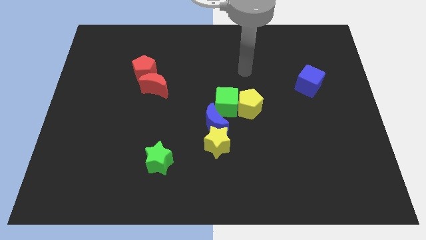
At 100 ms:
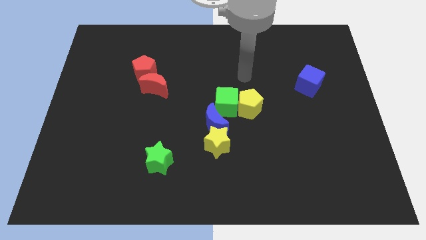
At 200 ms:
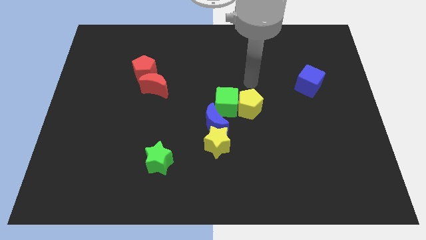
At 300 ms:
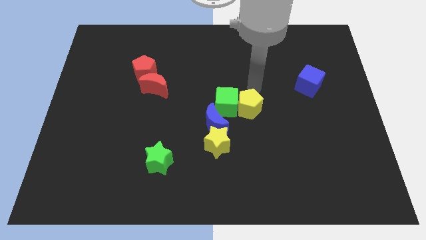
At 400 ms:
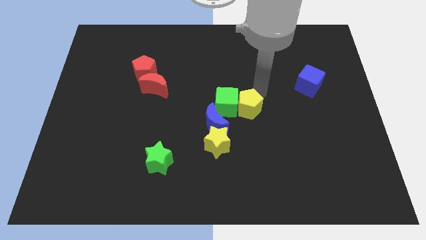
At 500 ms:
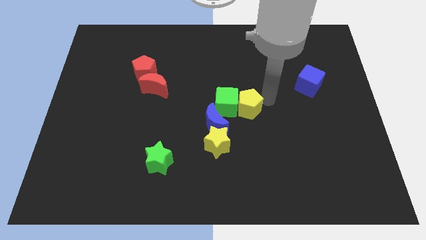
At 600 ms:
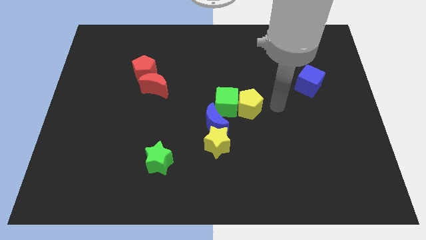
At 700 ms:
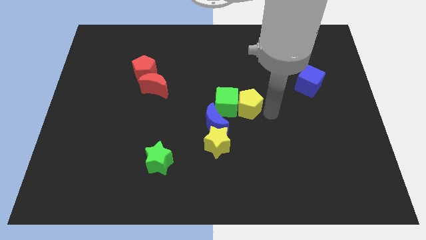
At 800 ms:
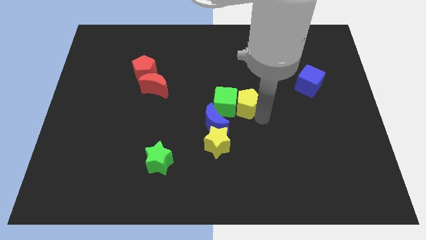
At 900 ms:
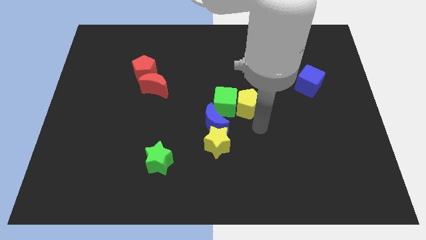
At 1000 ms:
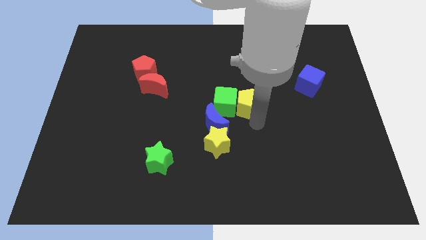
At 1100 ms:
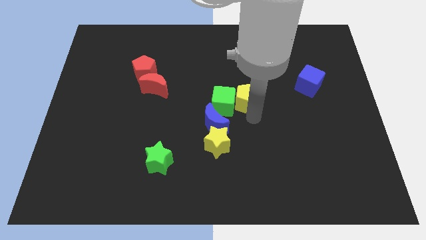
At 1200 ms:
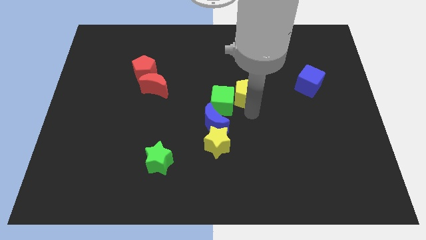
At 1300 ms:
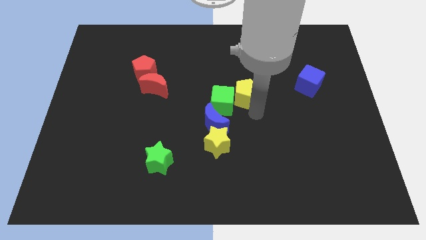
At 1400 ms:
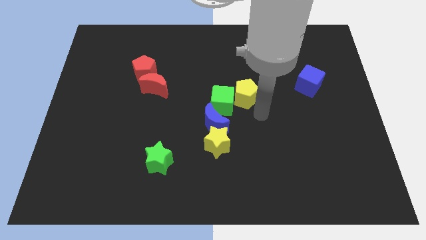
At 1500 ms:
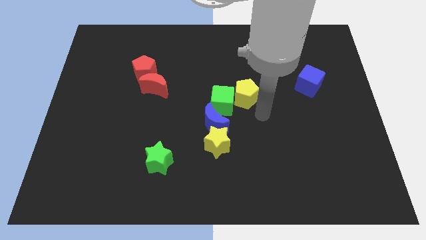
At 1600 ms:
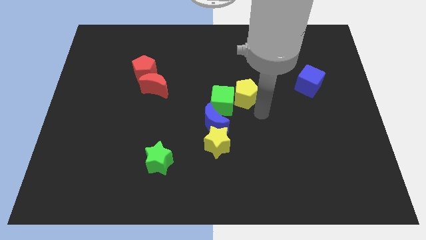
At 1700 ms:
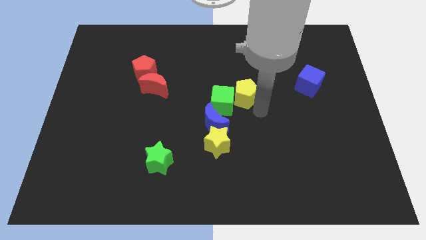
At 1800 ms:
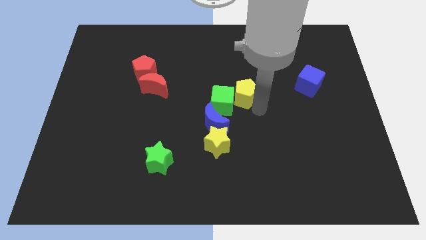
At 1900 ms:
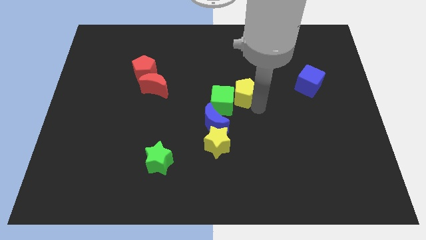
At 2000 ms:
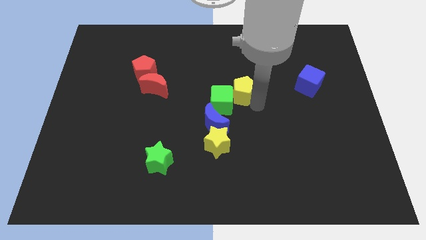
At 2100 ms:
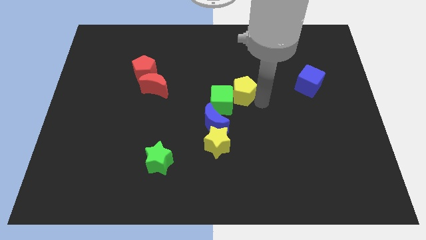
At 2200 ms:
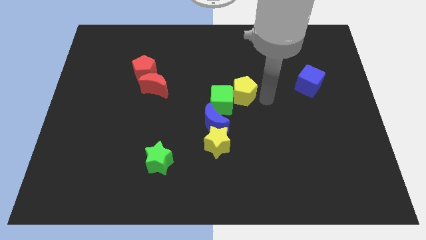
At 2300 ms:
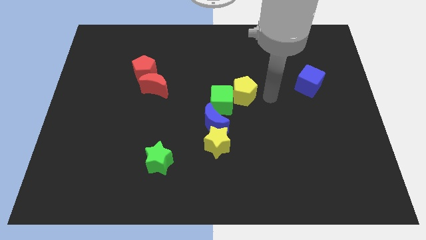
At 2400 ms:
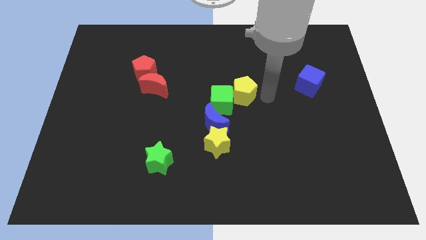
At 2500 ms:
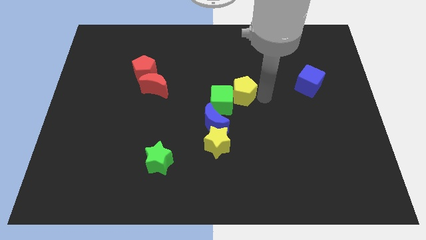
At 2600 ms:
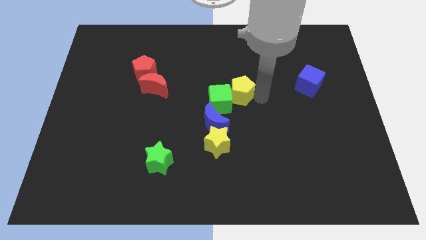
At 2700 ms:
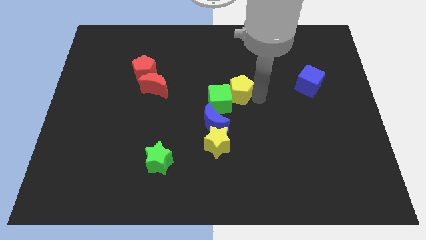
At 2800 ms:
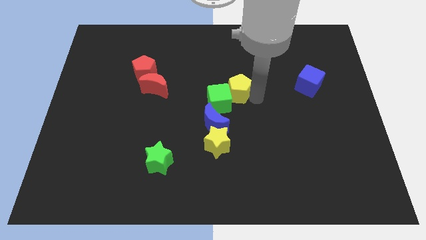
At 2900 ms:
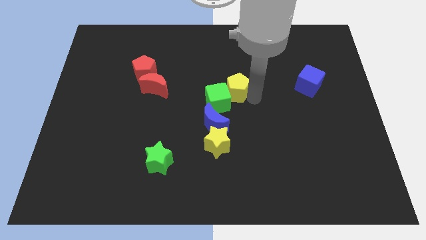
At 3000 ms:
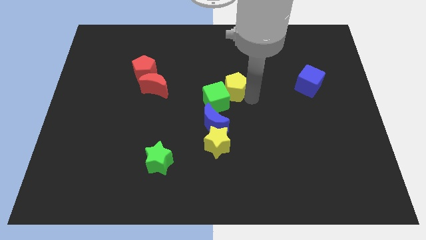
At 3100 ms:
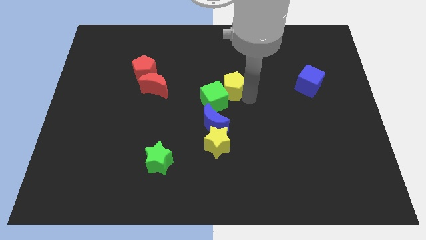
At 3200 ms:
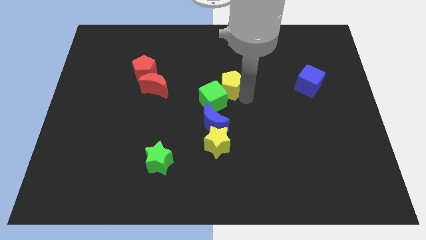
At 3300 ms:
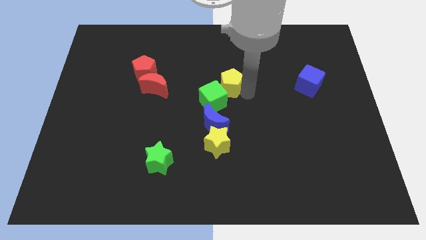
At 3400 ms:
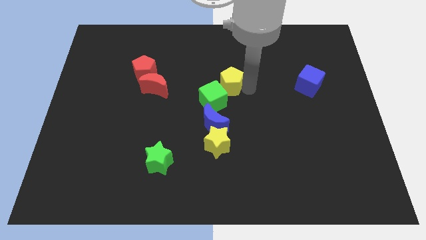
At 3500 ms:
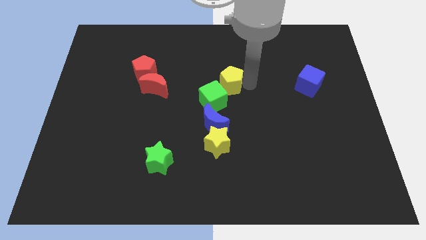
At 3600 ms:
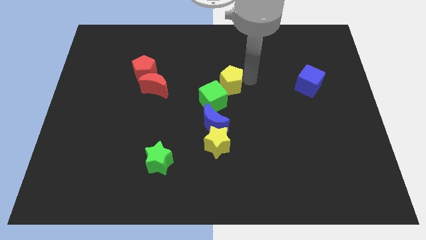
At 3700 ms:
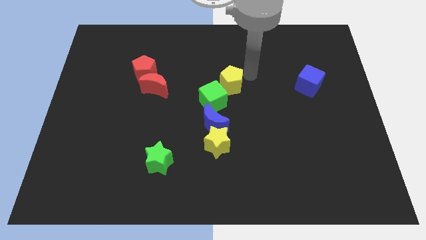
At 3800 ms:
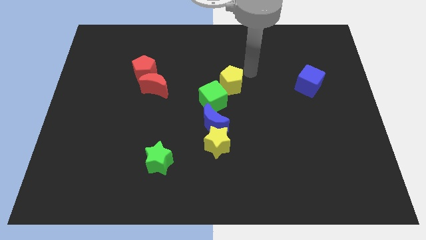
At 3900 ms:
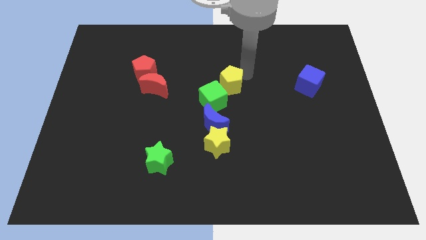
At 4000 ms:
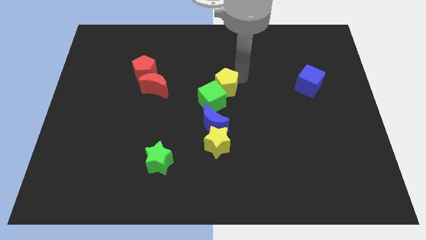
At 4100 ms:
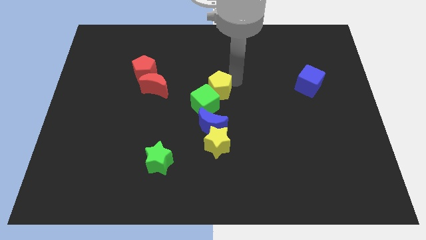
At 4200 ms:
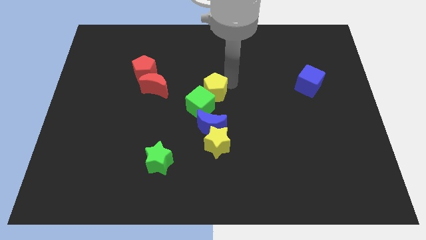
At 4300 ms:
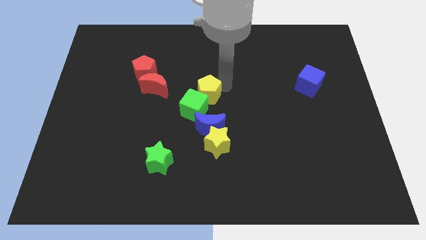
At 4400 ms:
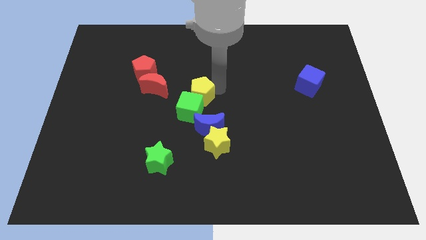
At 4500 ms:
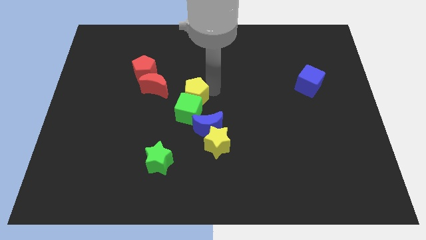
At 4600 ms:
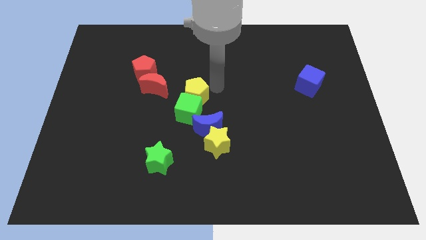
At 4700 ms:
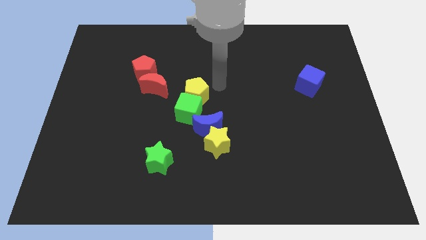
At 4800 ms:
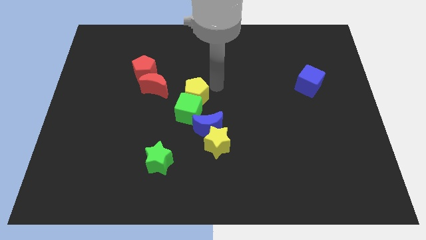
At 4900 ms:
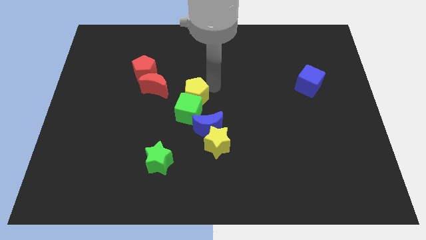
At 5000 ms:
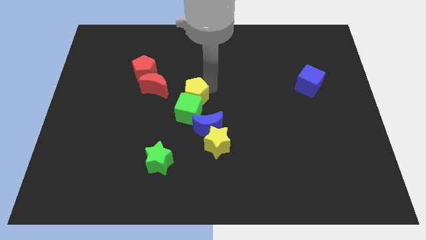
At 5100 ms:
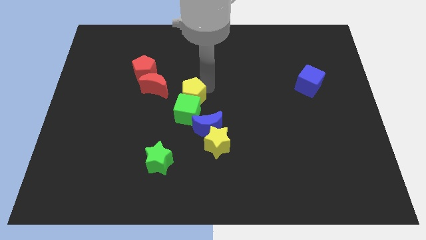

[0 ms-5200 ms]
push the yellow pentagon to the bottom right of the red moon

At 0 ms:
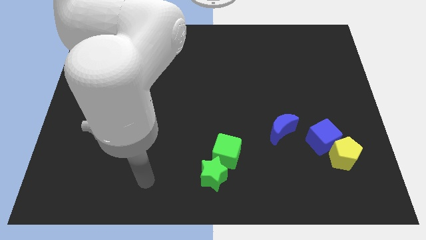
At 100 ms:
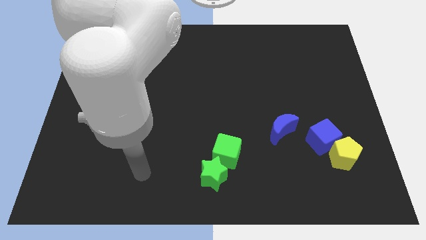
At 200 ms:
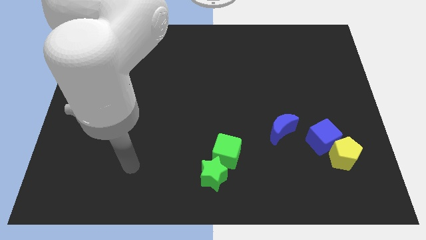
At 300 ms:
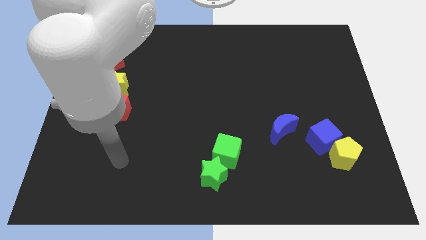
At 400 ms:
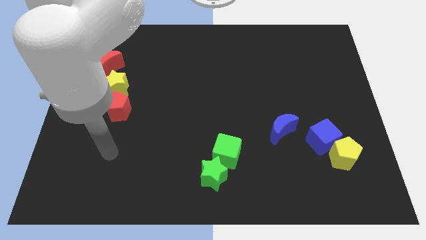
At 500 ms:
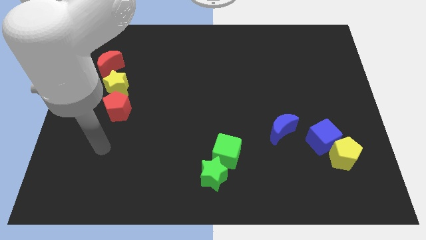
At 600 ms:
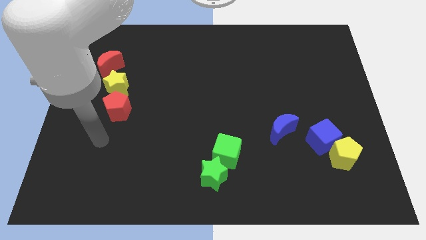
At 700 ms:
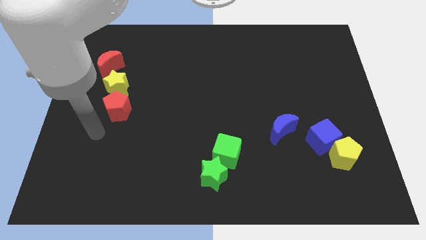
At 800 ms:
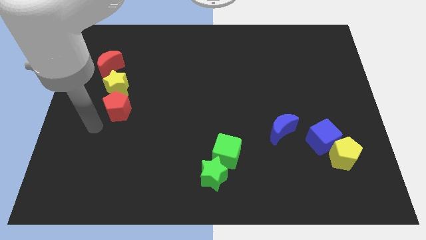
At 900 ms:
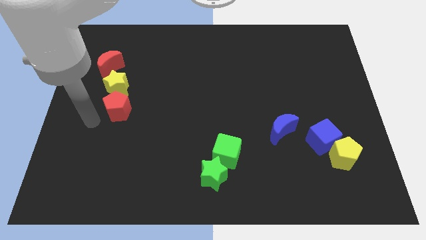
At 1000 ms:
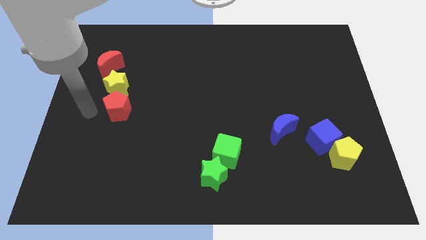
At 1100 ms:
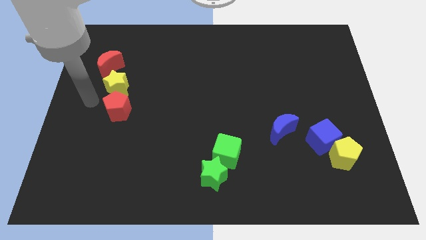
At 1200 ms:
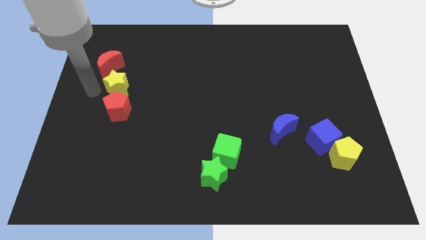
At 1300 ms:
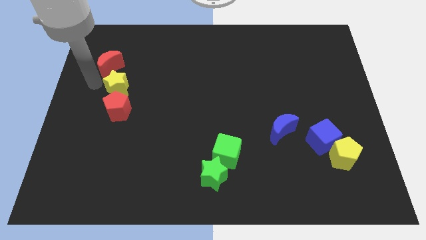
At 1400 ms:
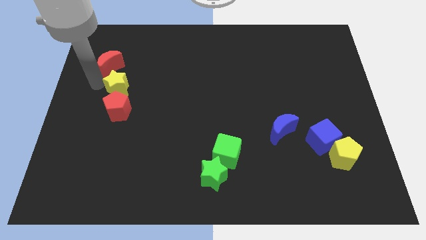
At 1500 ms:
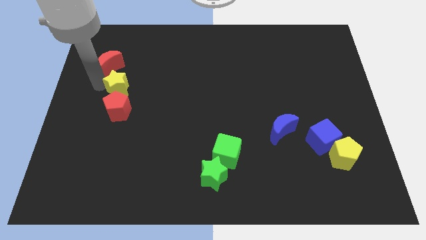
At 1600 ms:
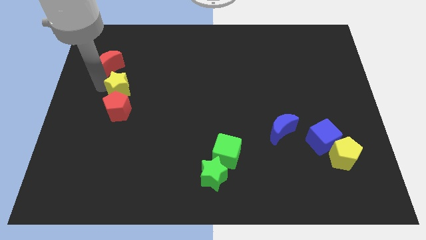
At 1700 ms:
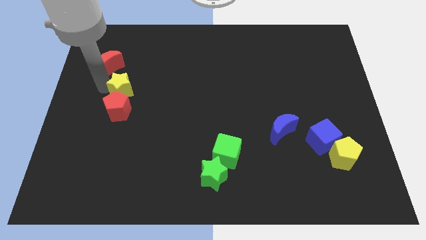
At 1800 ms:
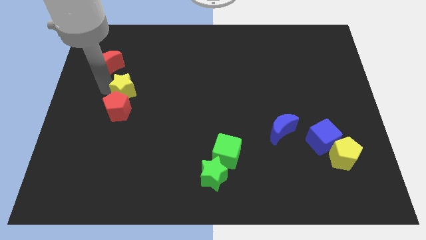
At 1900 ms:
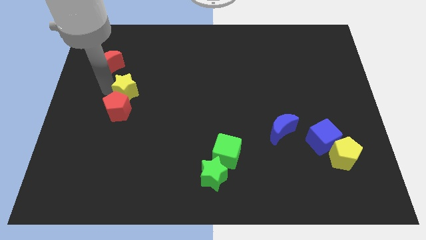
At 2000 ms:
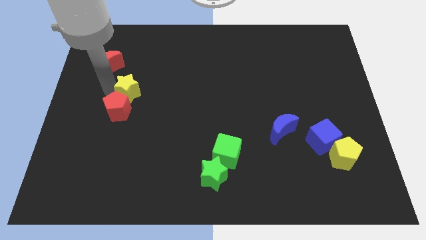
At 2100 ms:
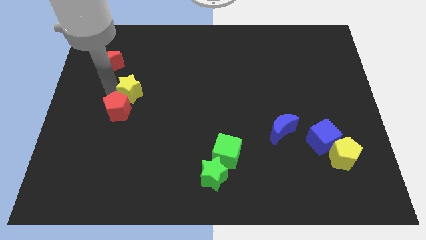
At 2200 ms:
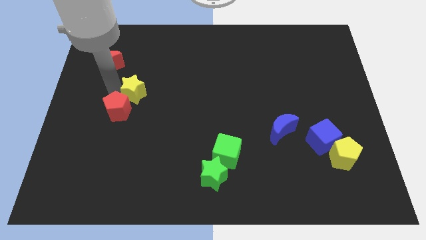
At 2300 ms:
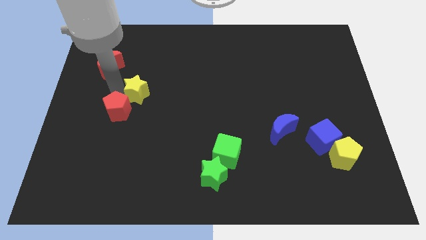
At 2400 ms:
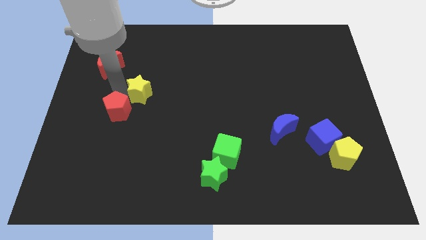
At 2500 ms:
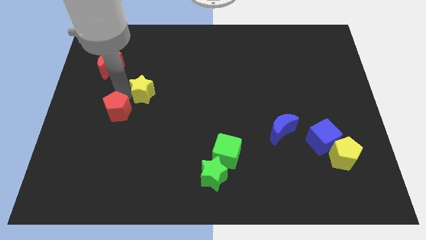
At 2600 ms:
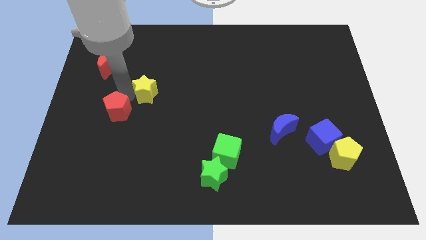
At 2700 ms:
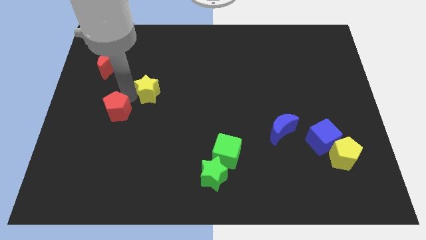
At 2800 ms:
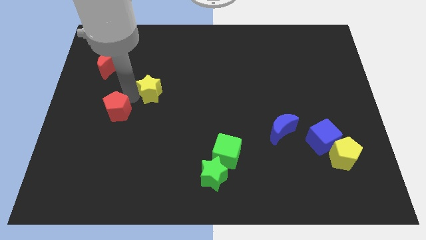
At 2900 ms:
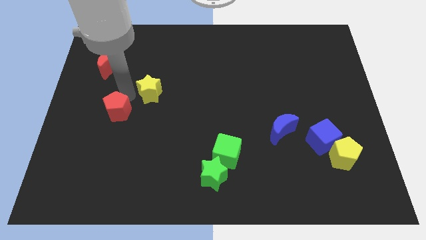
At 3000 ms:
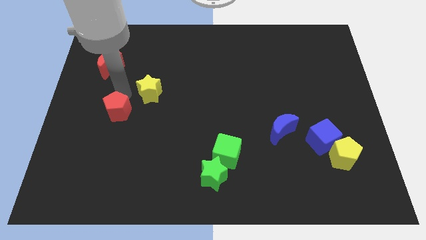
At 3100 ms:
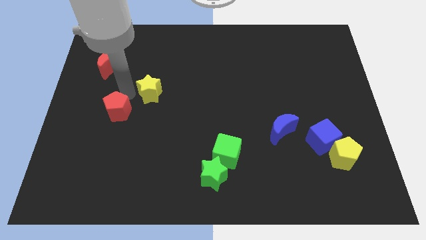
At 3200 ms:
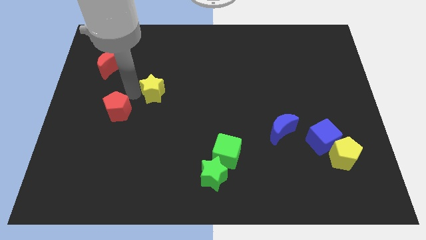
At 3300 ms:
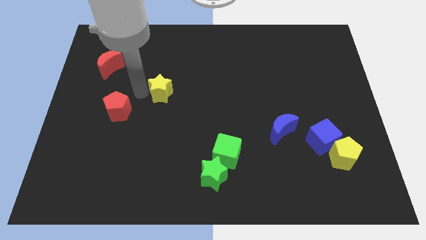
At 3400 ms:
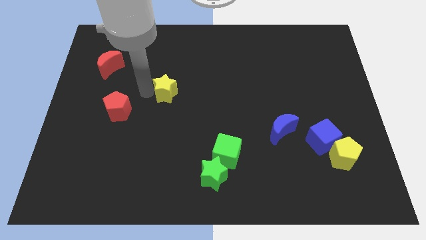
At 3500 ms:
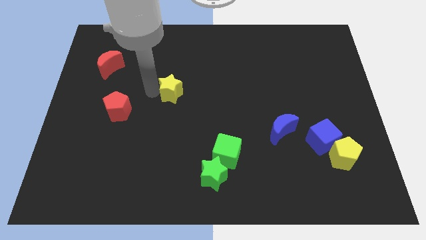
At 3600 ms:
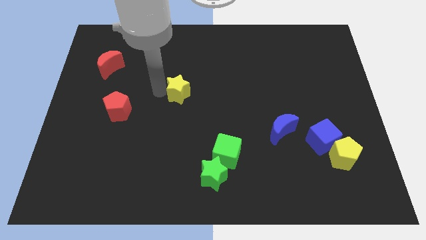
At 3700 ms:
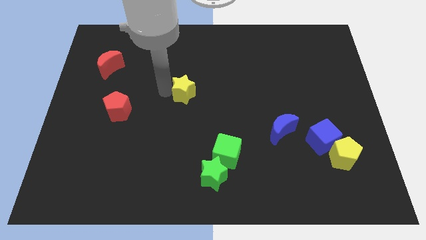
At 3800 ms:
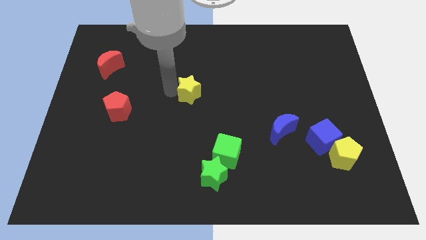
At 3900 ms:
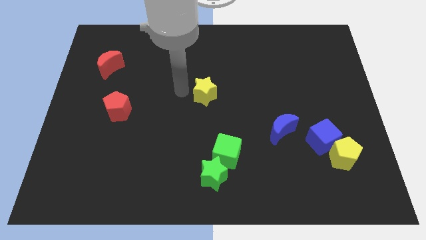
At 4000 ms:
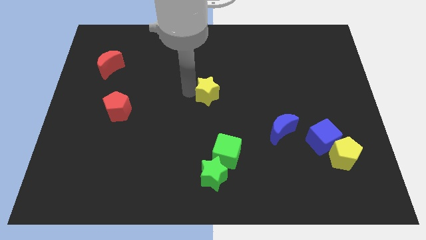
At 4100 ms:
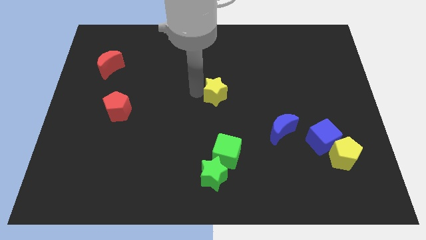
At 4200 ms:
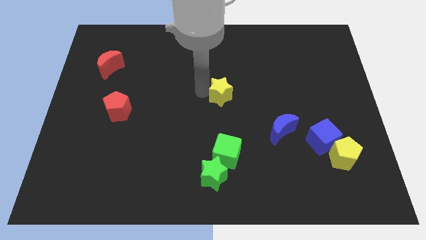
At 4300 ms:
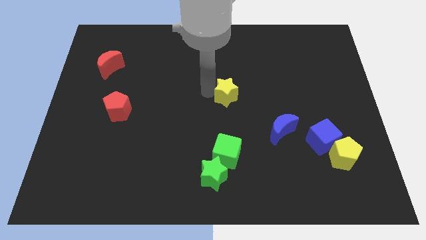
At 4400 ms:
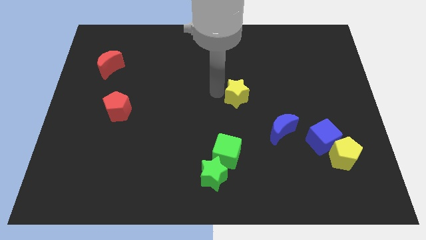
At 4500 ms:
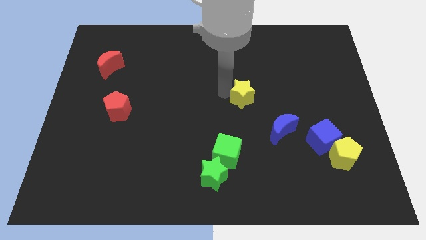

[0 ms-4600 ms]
put the yellow star to the top left of the blue moon
